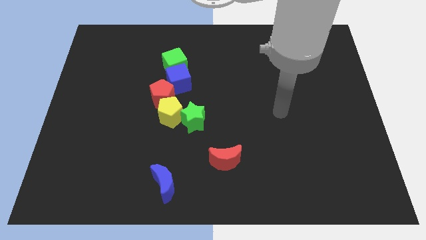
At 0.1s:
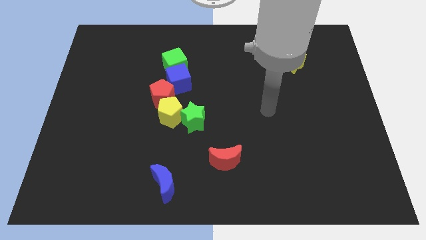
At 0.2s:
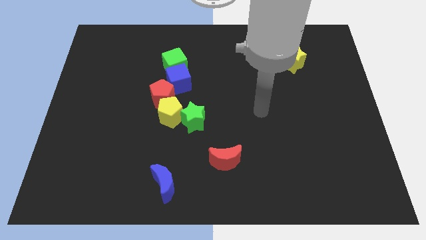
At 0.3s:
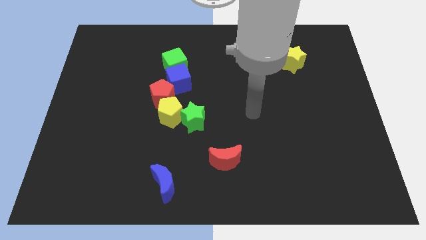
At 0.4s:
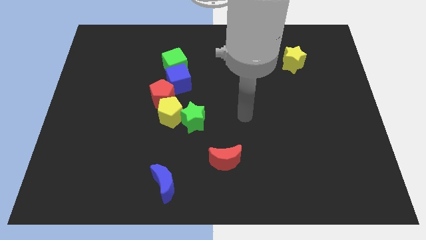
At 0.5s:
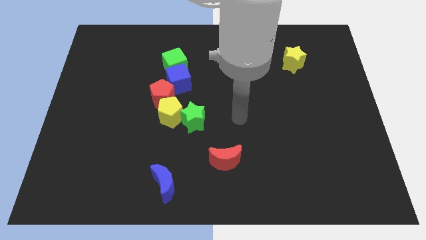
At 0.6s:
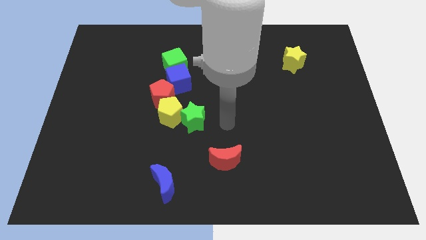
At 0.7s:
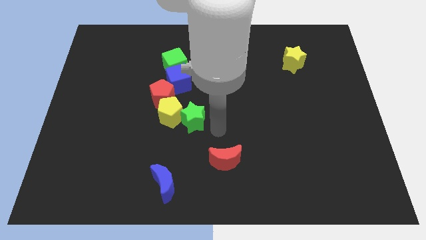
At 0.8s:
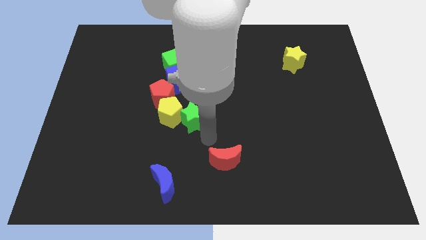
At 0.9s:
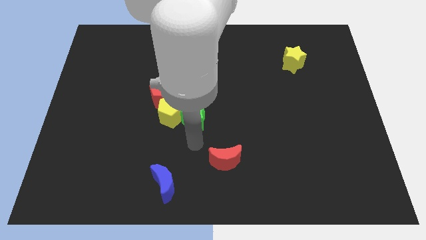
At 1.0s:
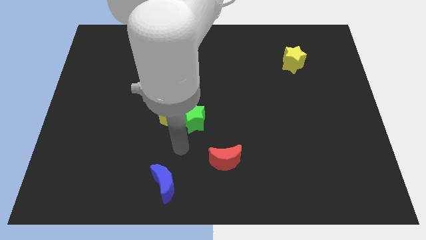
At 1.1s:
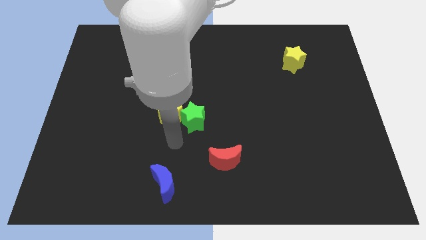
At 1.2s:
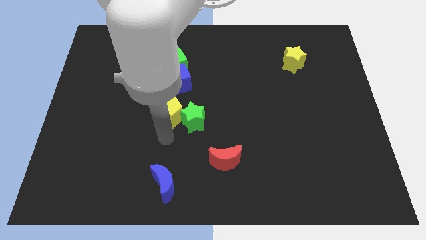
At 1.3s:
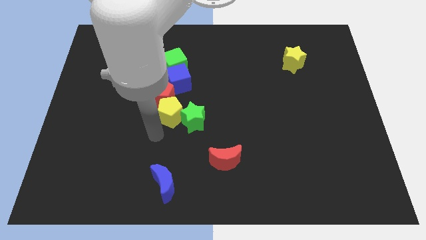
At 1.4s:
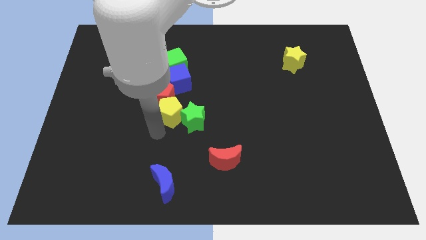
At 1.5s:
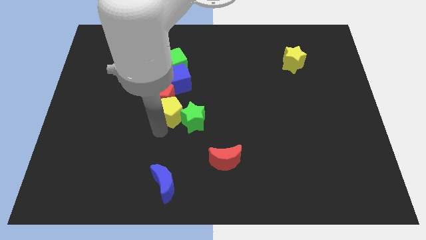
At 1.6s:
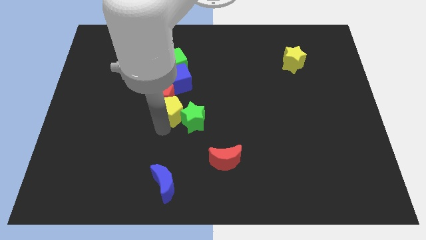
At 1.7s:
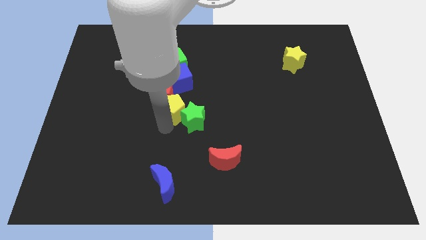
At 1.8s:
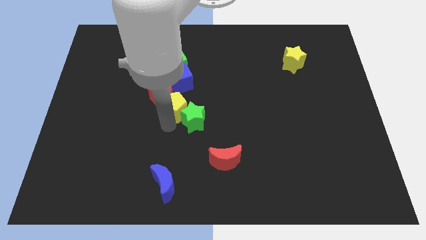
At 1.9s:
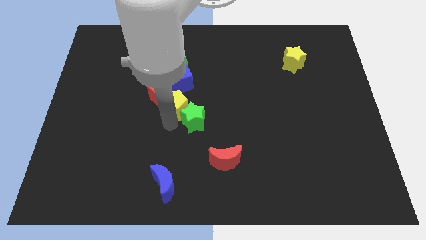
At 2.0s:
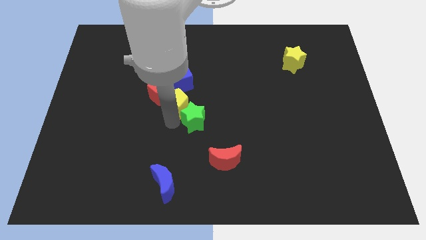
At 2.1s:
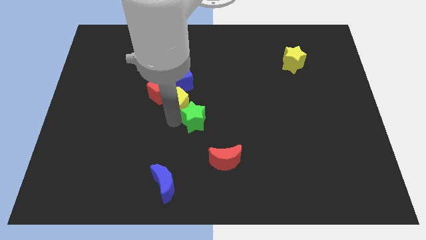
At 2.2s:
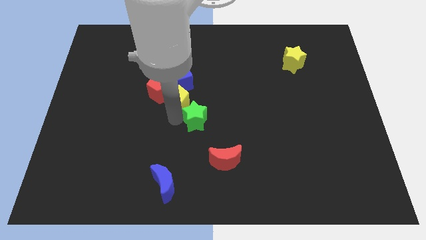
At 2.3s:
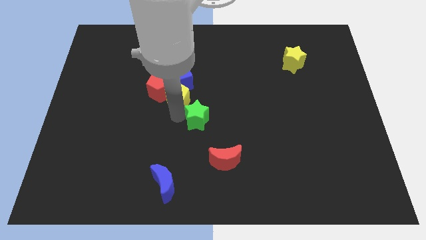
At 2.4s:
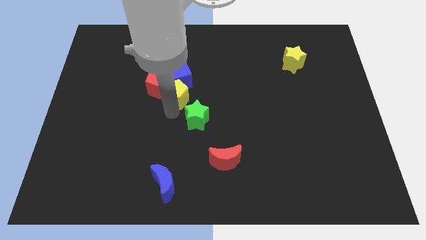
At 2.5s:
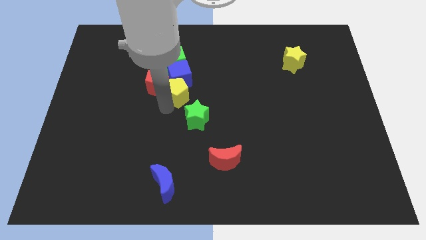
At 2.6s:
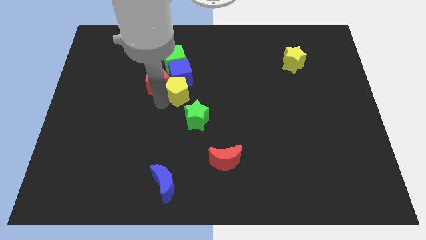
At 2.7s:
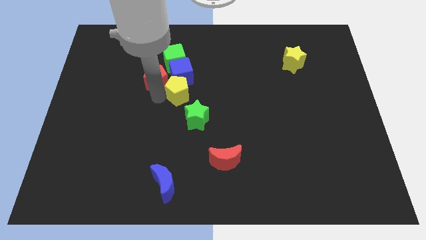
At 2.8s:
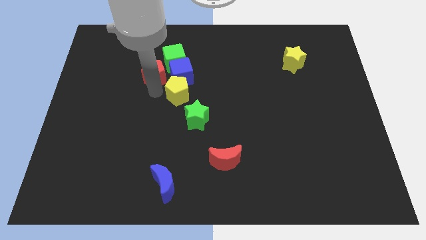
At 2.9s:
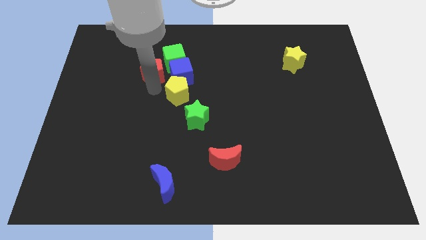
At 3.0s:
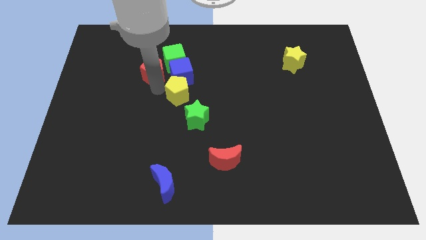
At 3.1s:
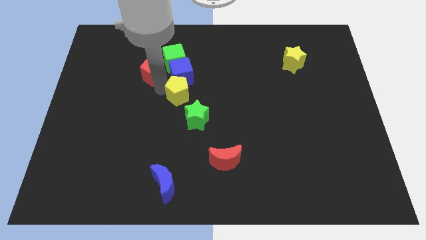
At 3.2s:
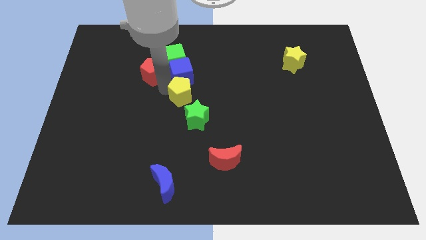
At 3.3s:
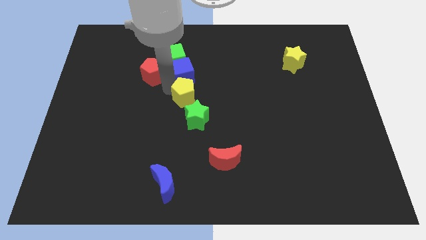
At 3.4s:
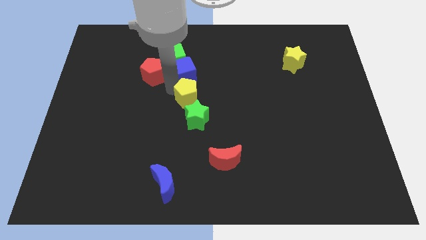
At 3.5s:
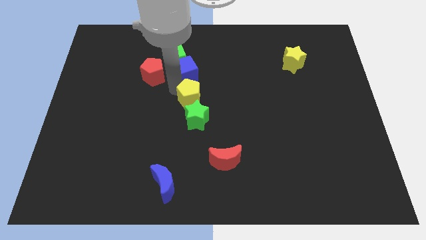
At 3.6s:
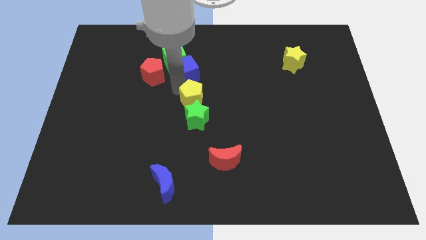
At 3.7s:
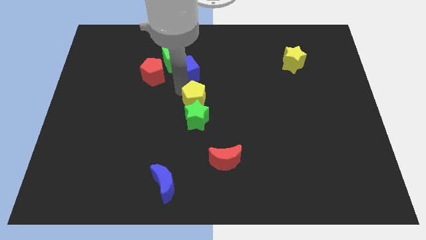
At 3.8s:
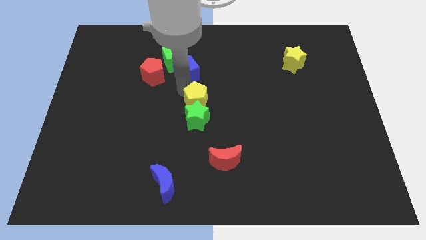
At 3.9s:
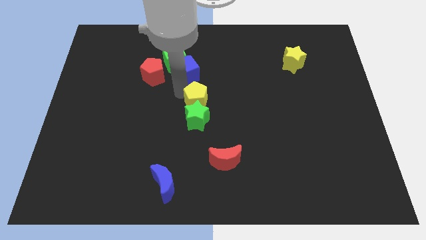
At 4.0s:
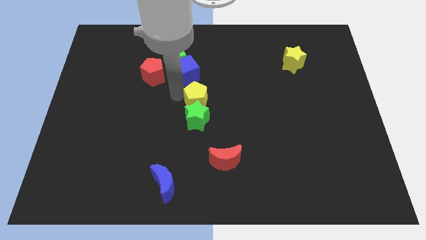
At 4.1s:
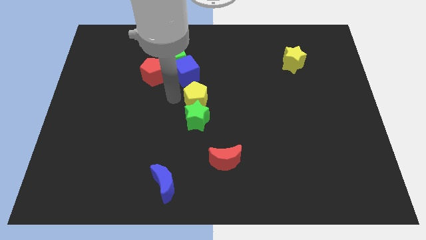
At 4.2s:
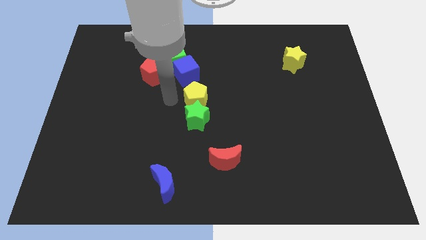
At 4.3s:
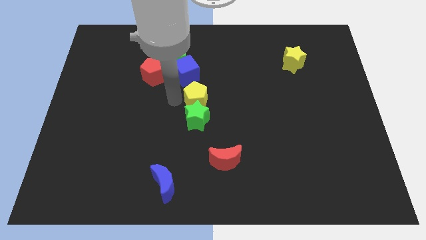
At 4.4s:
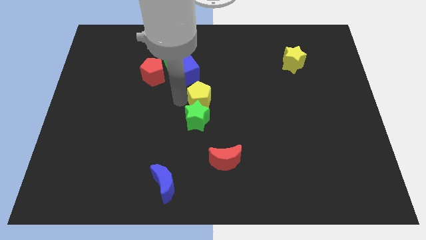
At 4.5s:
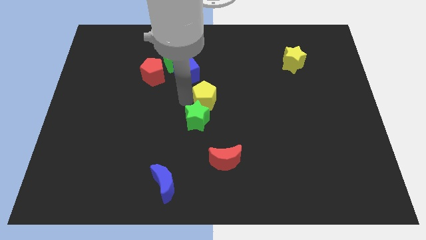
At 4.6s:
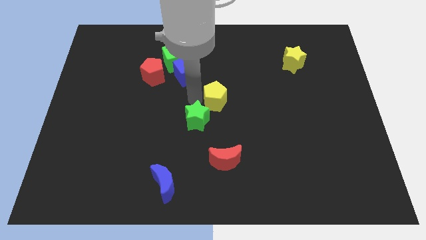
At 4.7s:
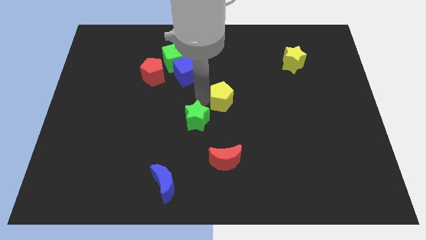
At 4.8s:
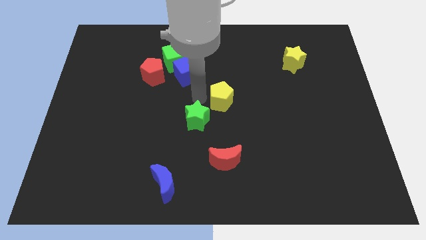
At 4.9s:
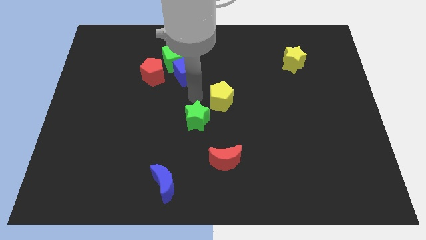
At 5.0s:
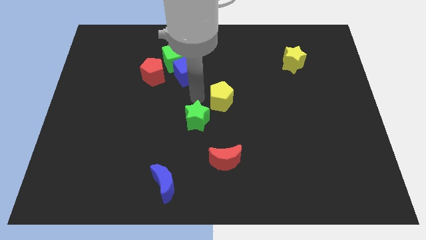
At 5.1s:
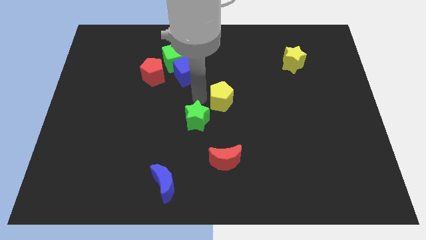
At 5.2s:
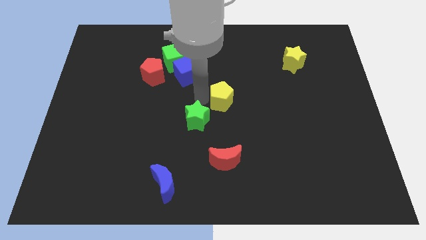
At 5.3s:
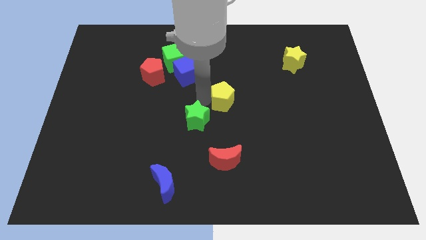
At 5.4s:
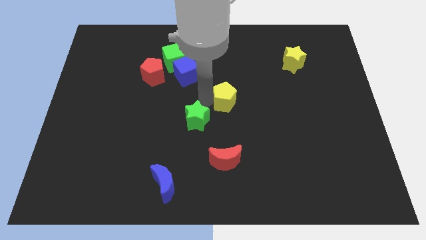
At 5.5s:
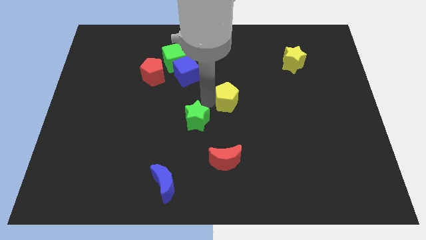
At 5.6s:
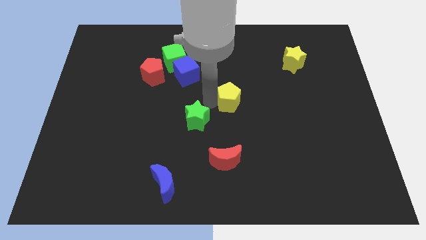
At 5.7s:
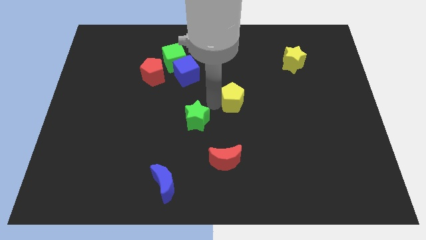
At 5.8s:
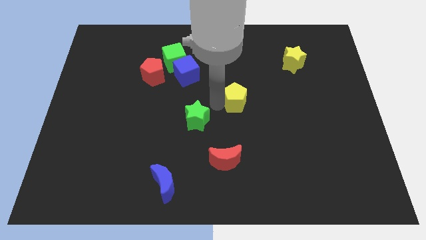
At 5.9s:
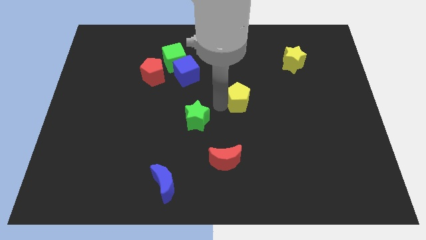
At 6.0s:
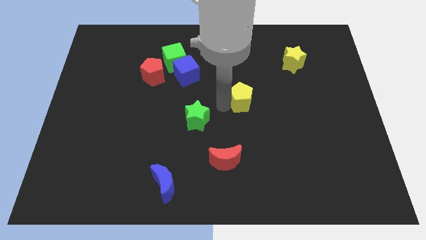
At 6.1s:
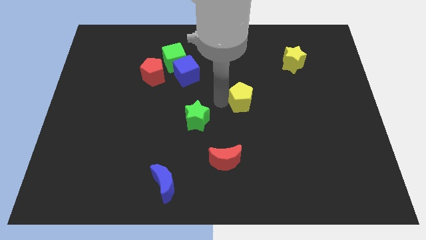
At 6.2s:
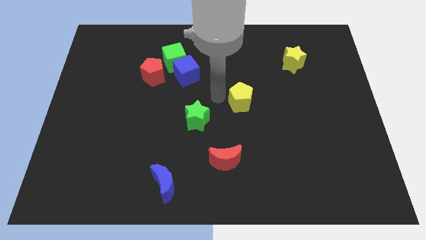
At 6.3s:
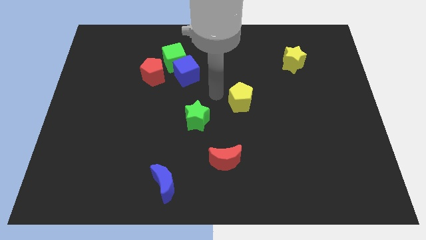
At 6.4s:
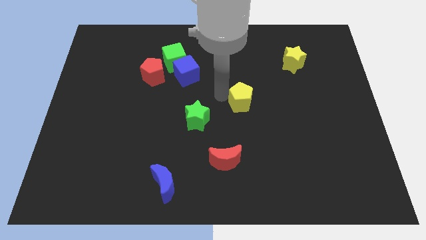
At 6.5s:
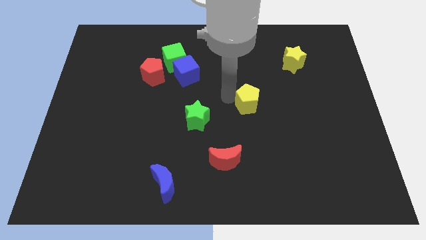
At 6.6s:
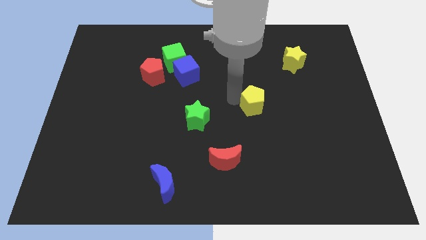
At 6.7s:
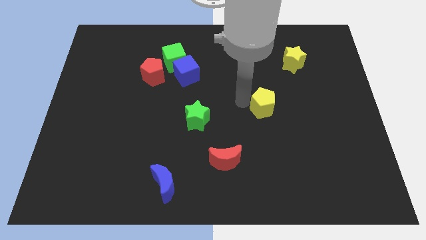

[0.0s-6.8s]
push the yellow pentagon to the right

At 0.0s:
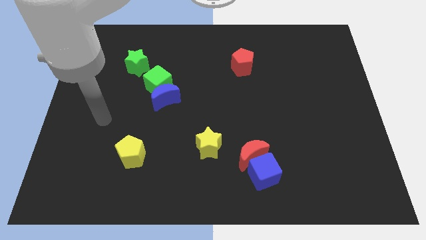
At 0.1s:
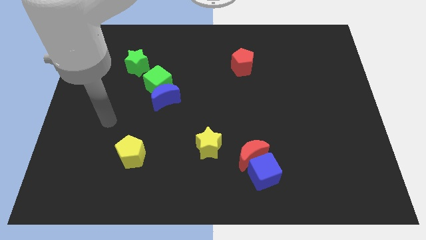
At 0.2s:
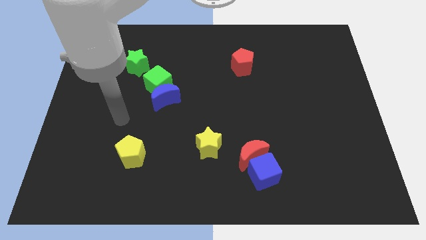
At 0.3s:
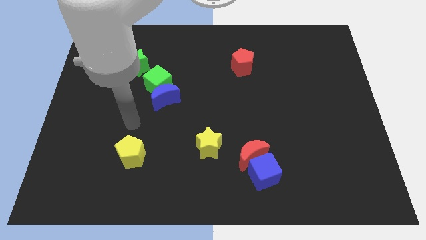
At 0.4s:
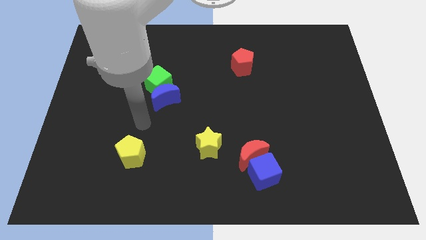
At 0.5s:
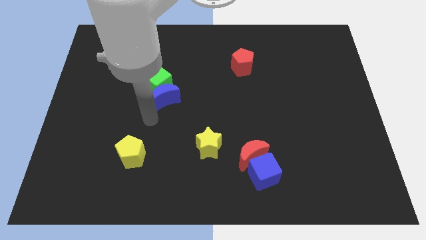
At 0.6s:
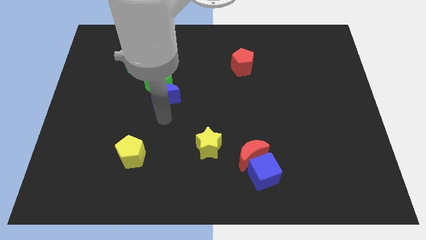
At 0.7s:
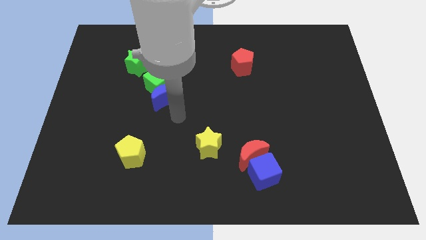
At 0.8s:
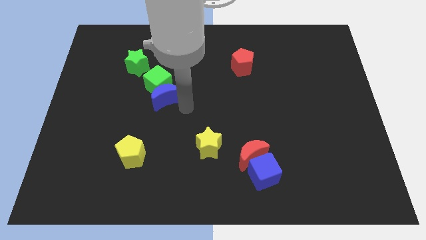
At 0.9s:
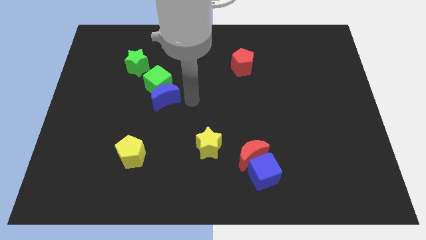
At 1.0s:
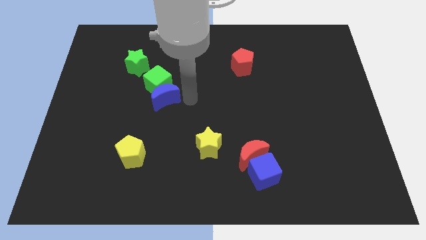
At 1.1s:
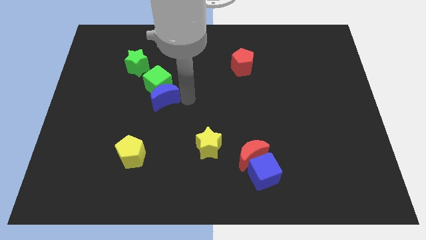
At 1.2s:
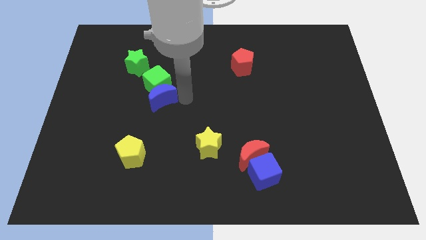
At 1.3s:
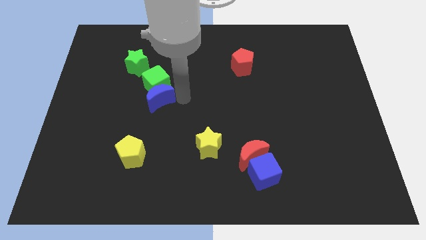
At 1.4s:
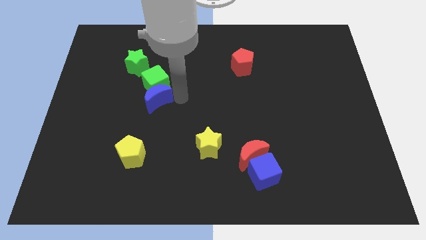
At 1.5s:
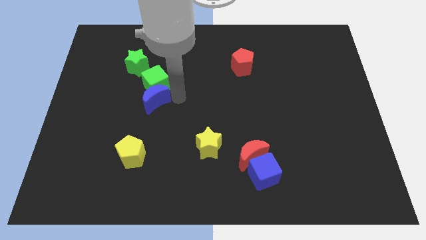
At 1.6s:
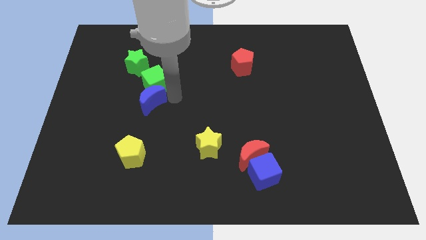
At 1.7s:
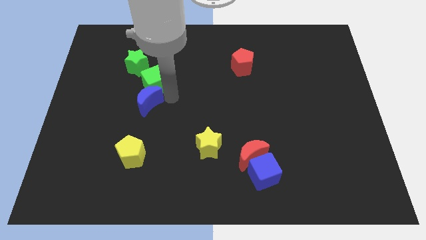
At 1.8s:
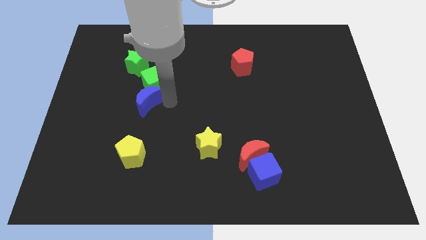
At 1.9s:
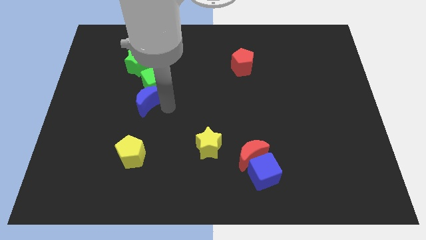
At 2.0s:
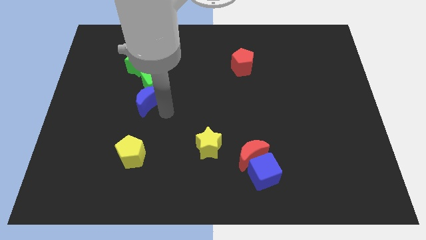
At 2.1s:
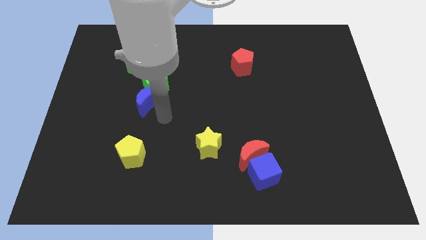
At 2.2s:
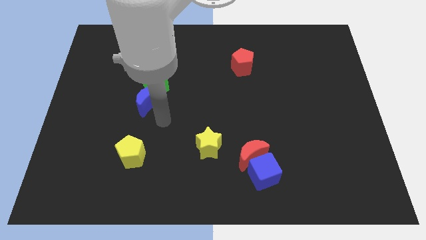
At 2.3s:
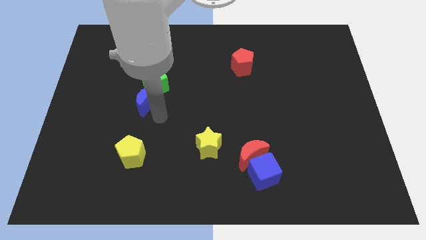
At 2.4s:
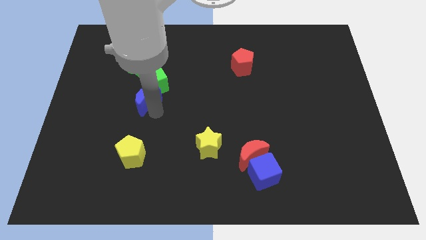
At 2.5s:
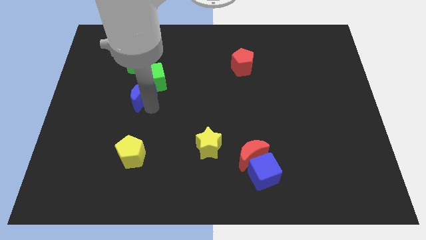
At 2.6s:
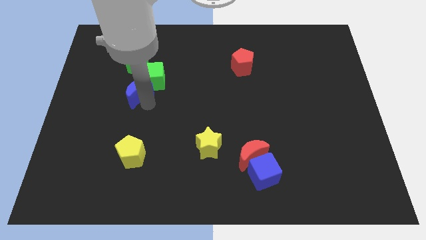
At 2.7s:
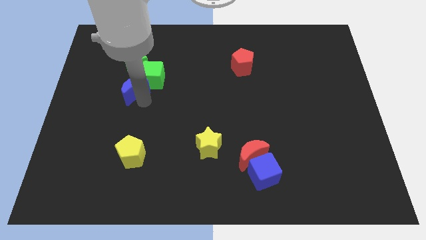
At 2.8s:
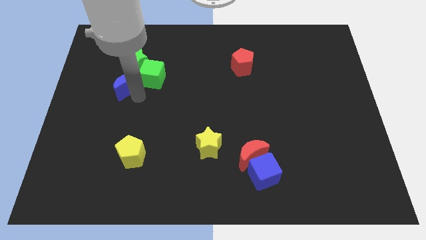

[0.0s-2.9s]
slide the blue moon a bit diagonally upwards and left
